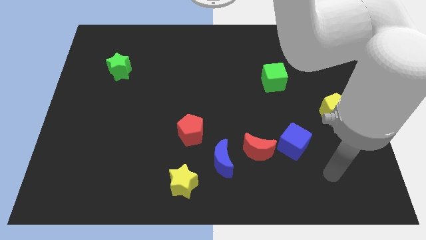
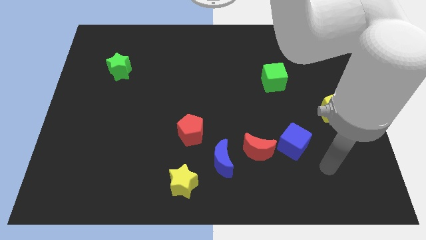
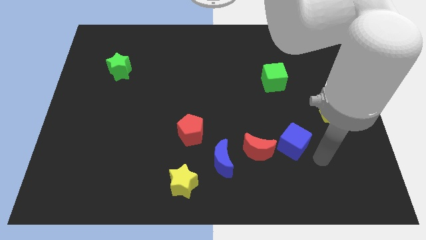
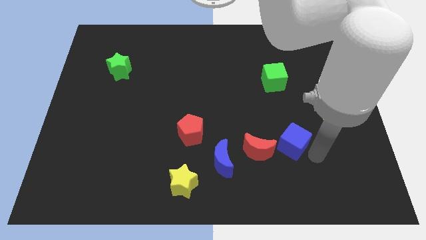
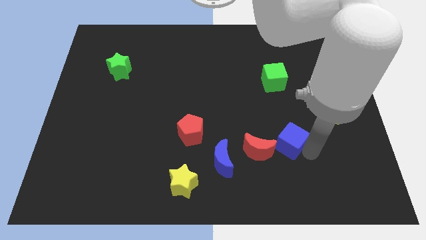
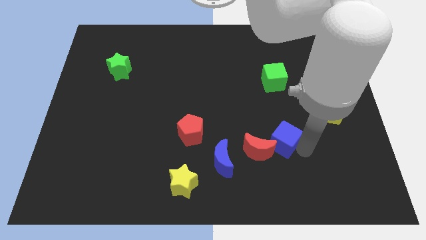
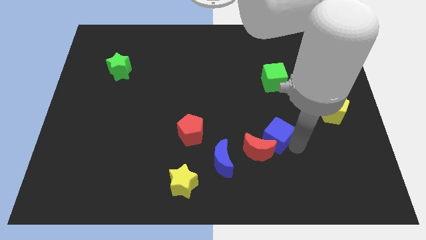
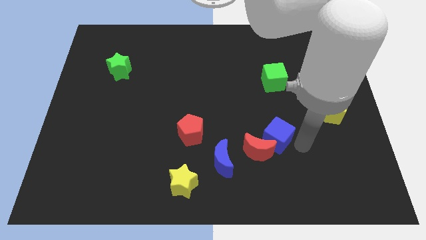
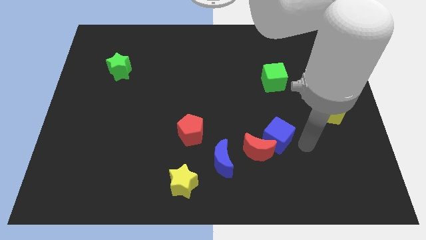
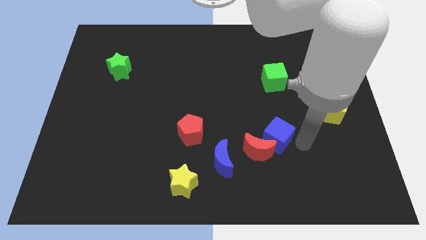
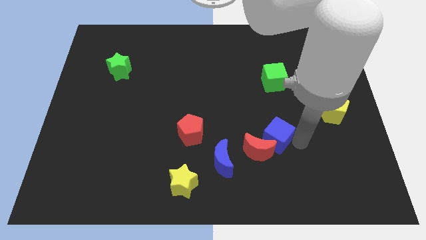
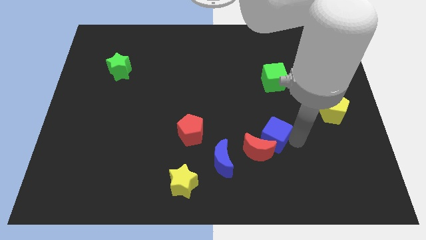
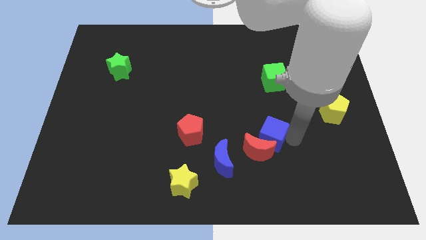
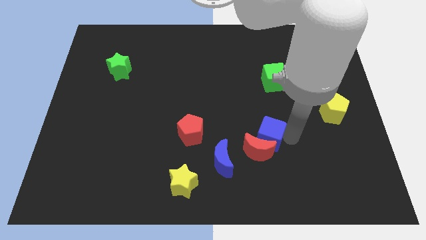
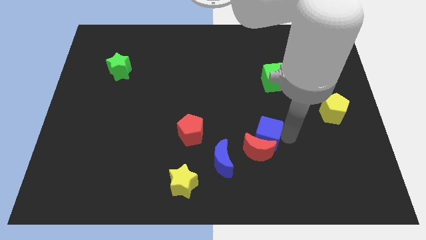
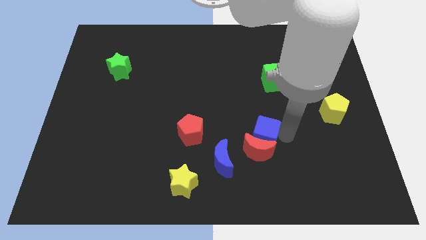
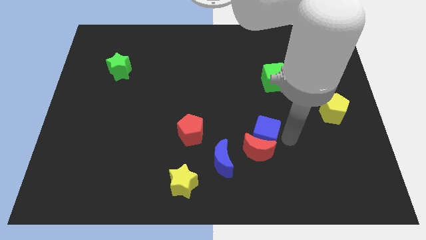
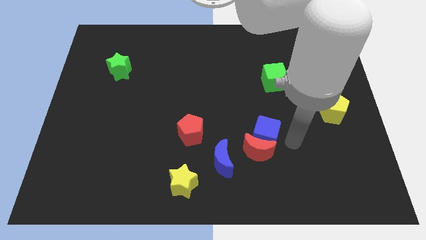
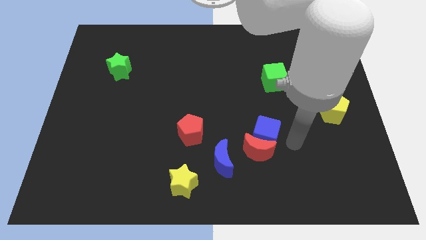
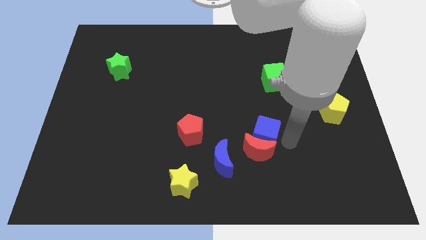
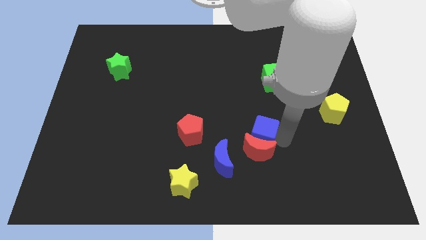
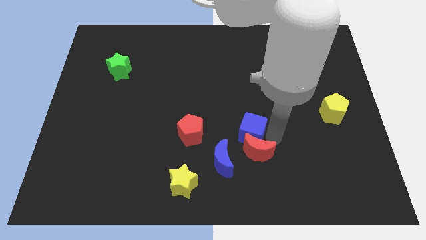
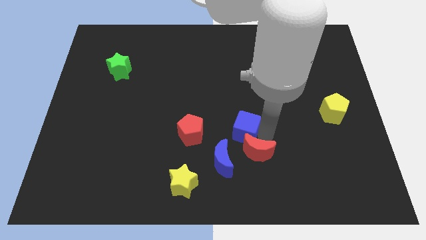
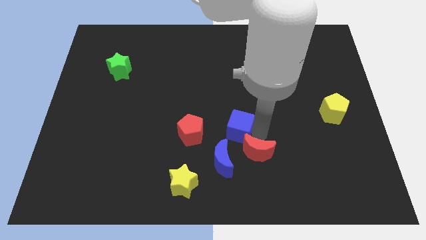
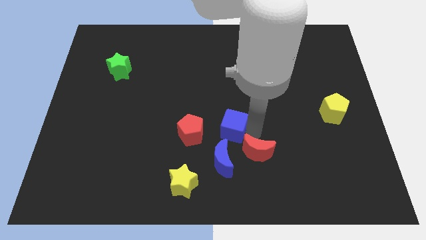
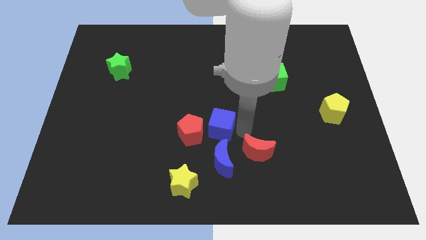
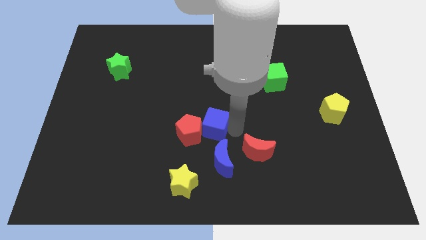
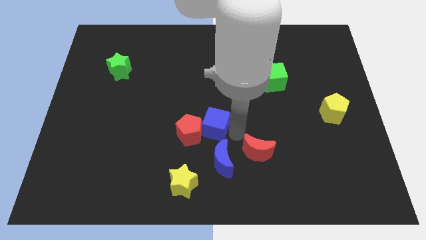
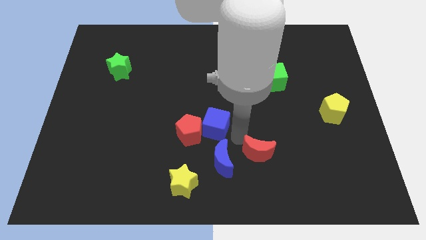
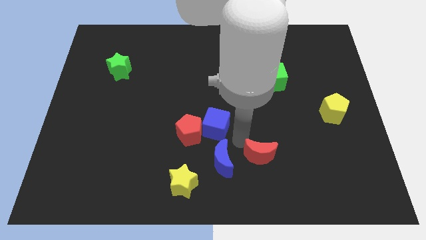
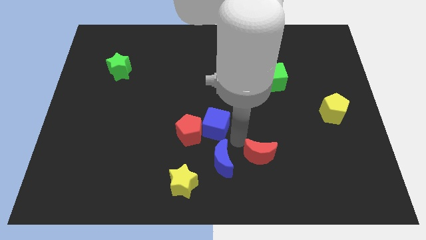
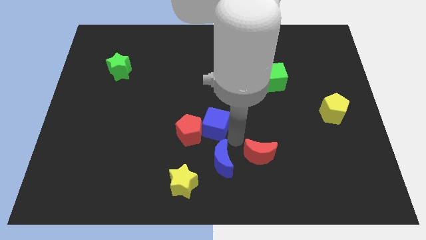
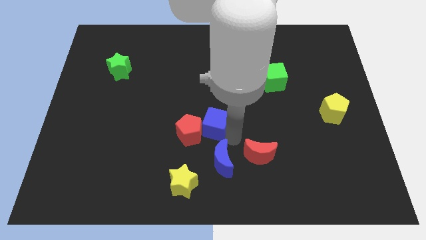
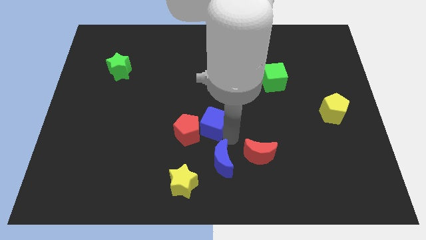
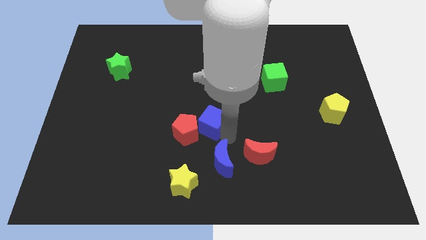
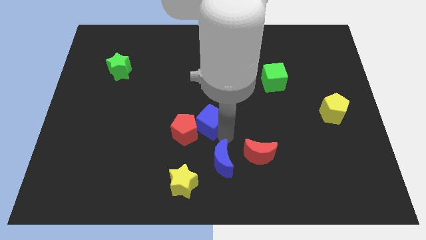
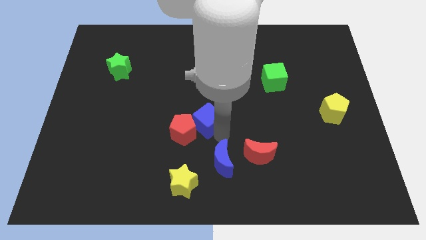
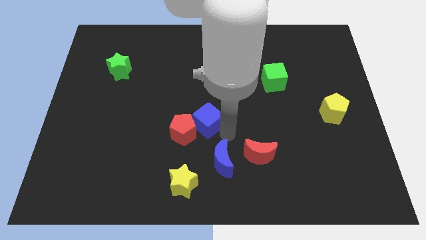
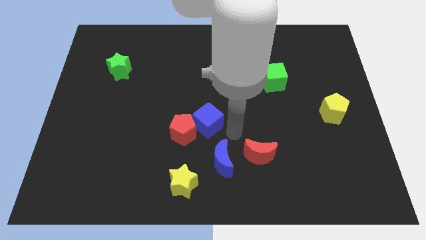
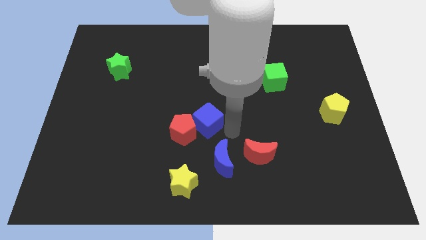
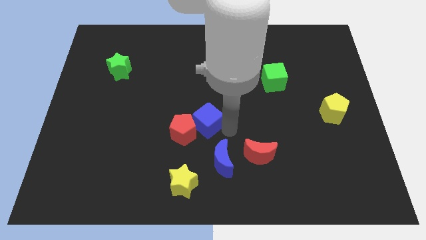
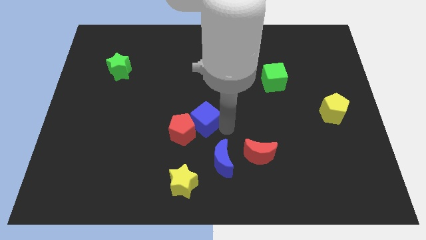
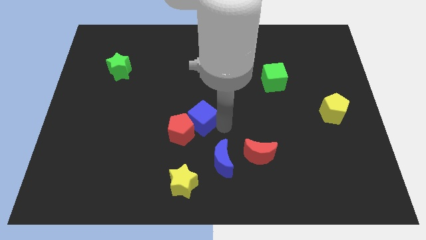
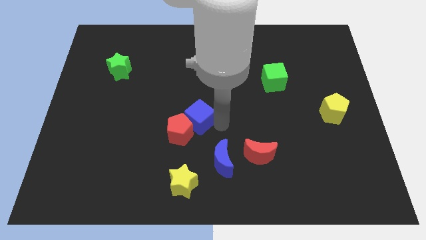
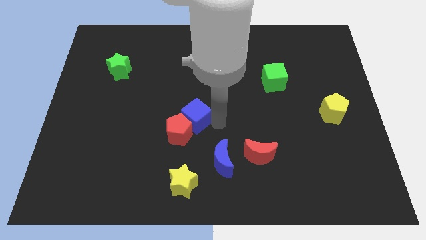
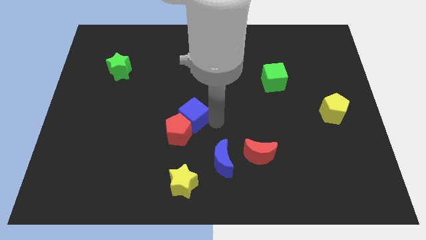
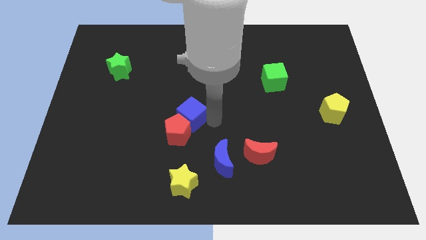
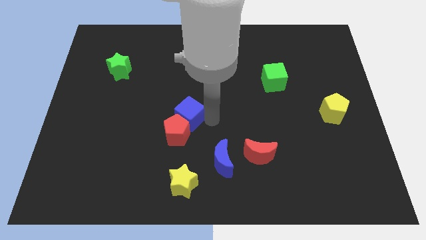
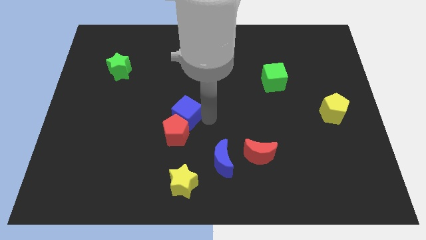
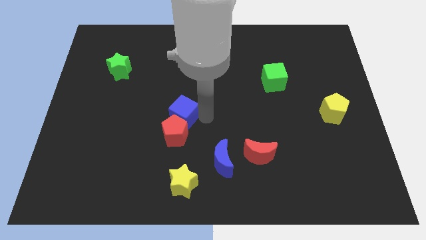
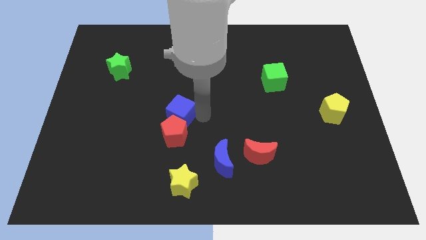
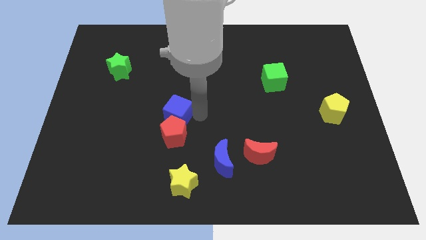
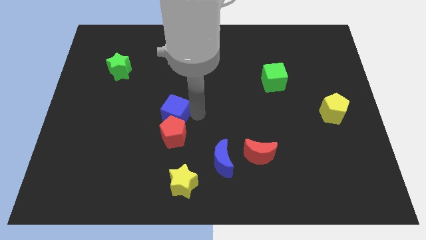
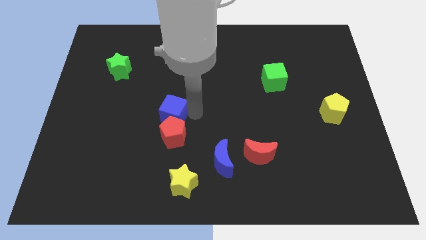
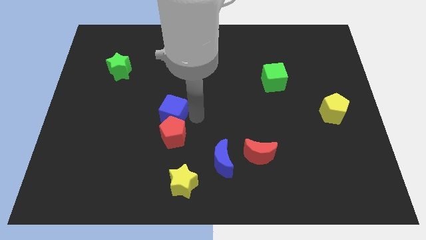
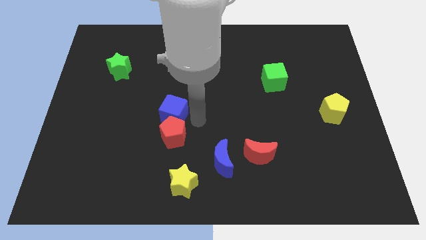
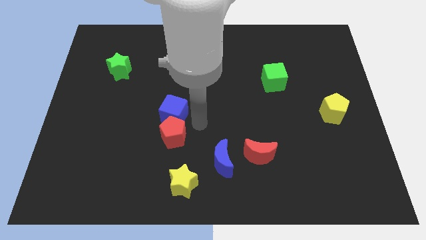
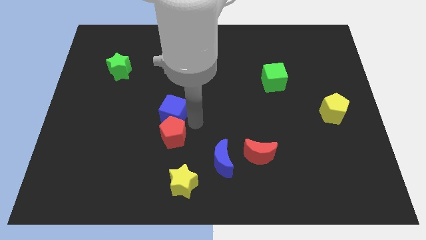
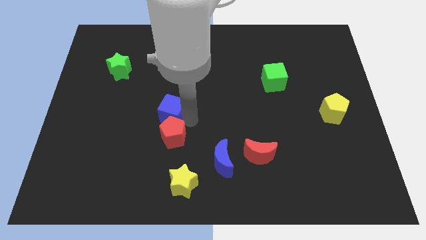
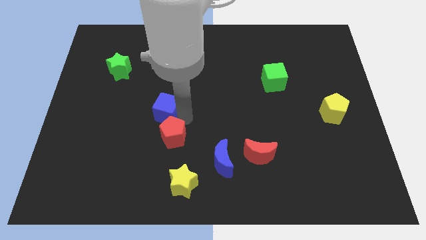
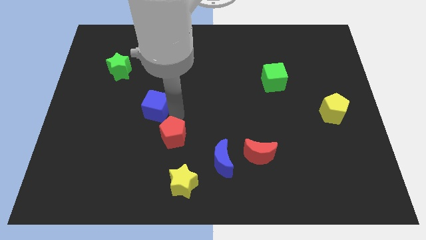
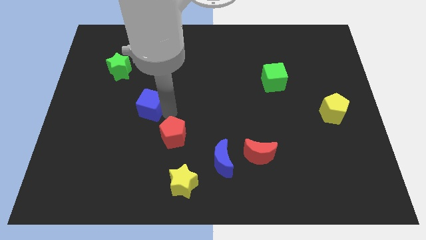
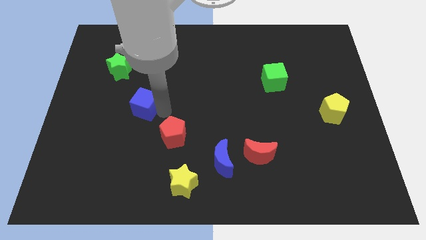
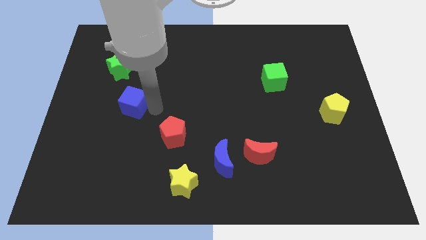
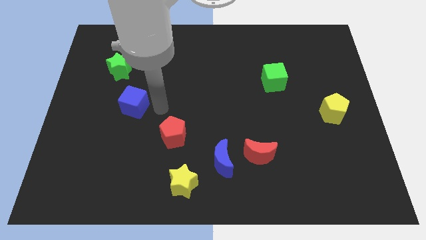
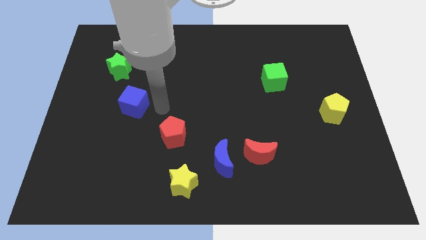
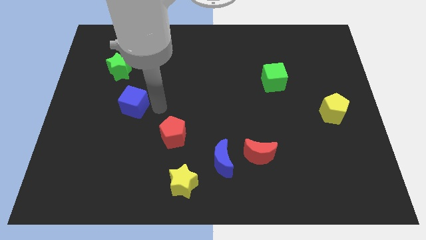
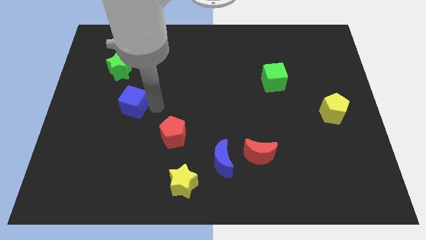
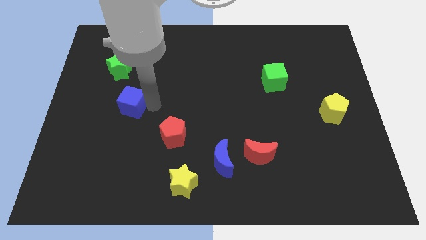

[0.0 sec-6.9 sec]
move the blue cube to the bottom of the green star
